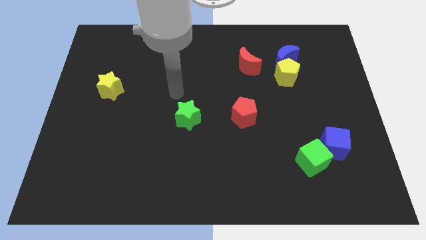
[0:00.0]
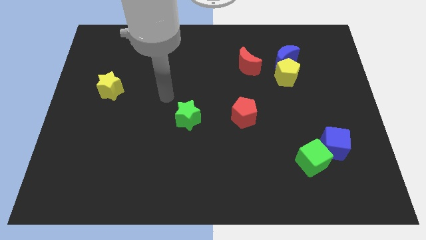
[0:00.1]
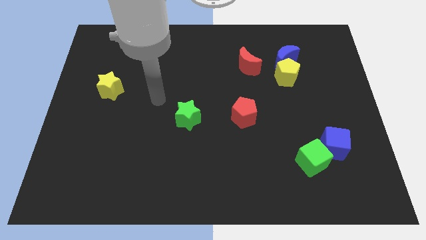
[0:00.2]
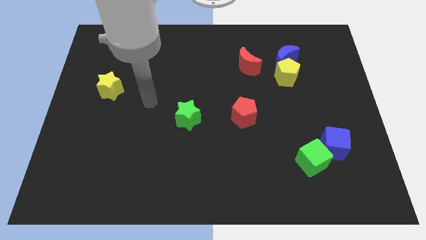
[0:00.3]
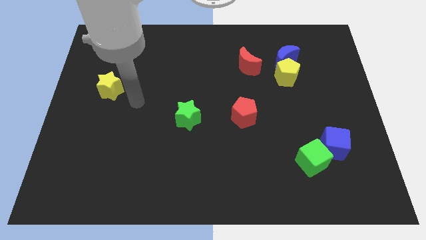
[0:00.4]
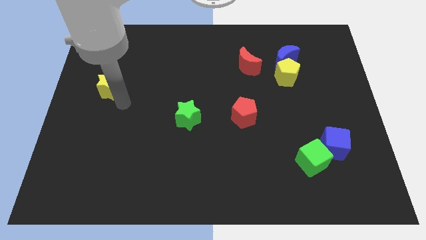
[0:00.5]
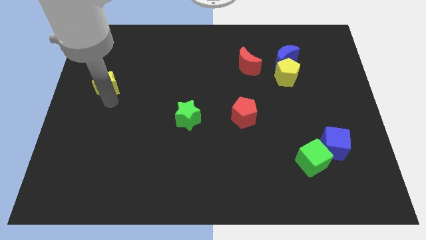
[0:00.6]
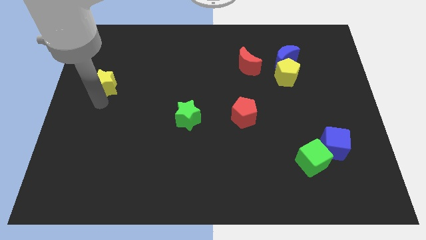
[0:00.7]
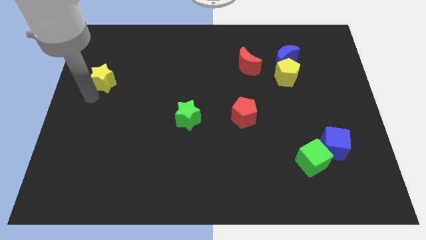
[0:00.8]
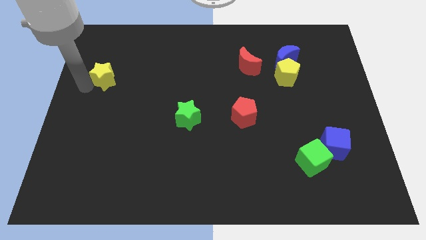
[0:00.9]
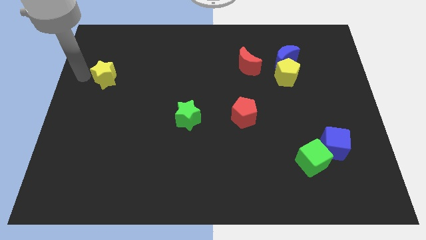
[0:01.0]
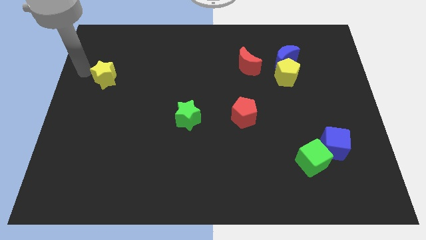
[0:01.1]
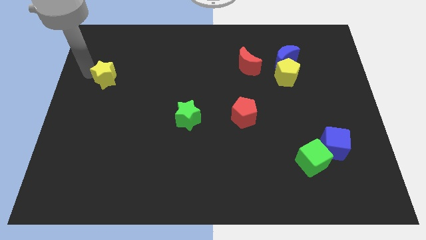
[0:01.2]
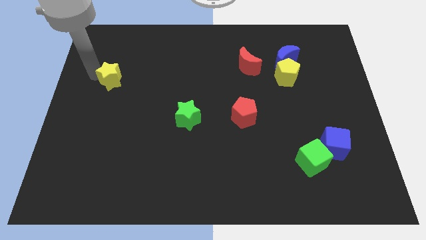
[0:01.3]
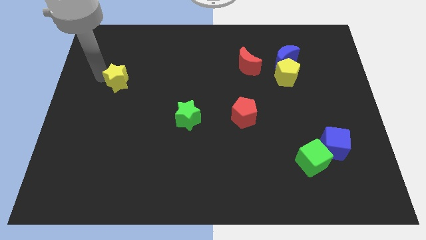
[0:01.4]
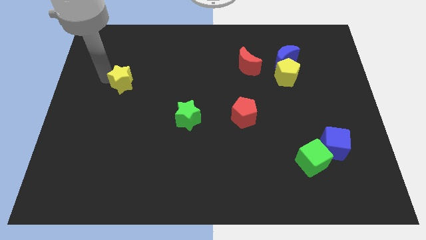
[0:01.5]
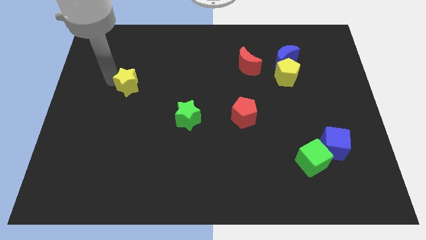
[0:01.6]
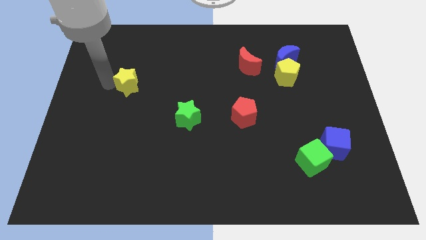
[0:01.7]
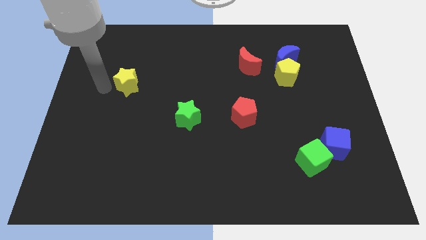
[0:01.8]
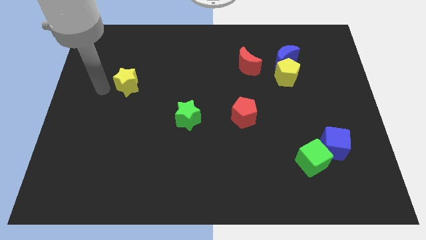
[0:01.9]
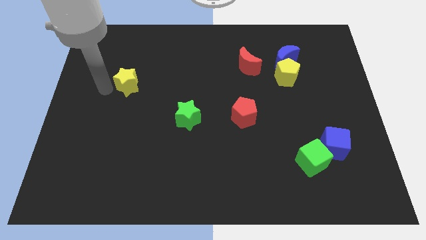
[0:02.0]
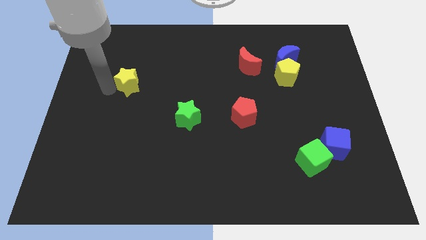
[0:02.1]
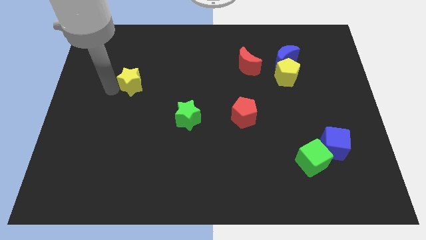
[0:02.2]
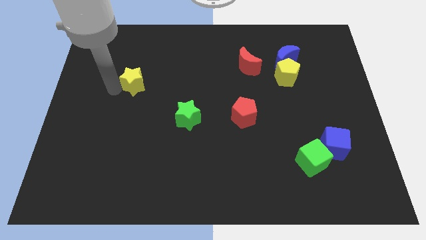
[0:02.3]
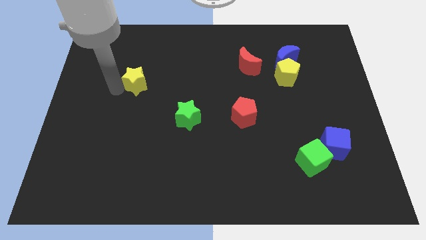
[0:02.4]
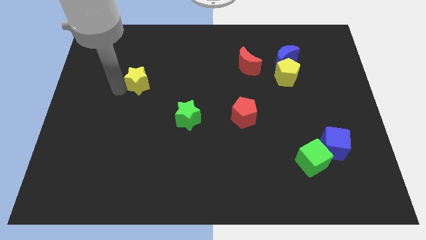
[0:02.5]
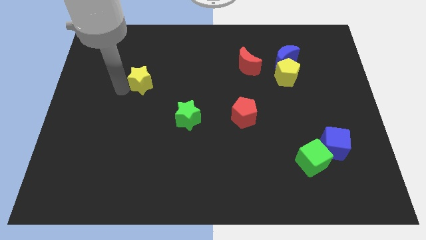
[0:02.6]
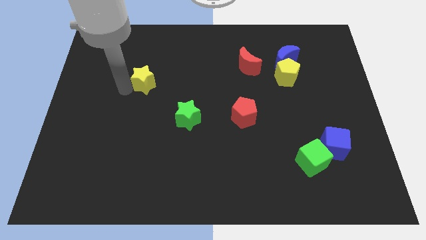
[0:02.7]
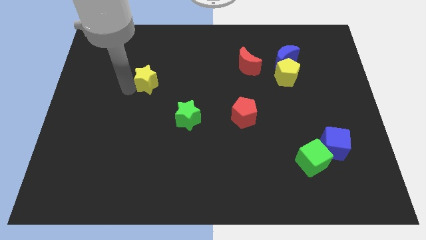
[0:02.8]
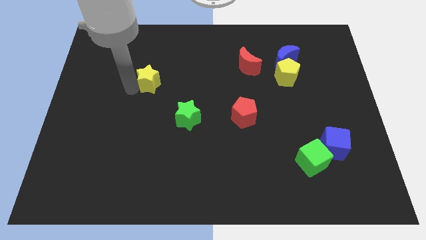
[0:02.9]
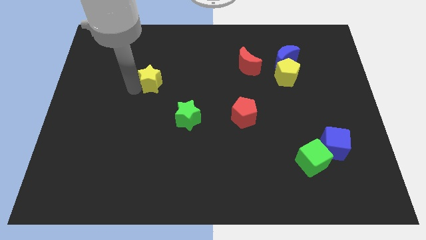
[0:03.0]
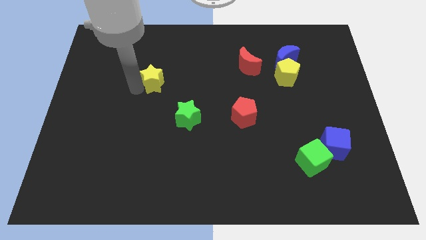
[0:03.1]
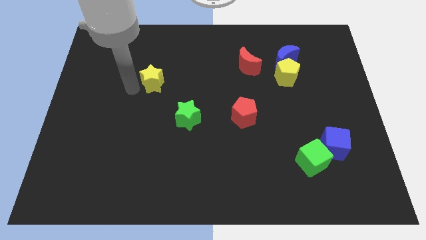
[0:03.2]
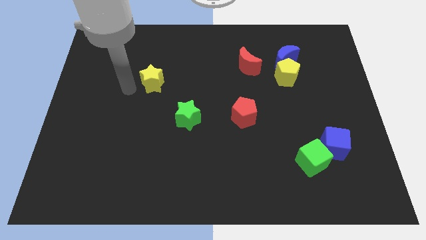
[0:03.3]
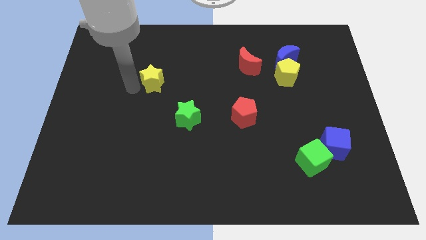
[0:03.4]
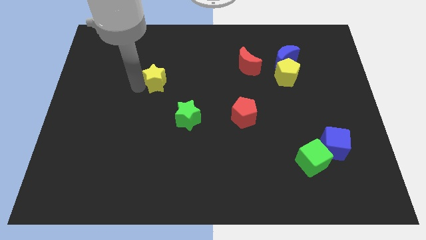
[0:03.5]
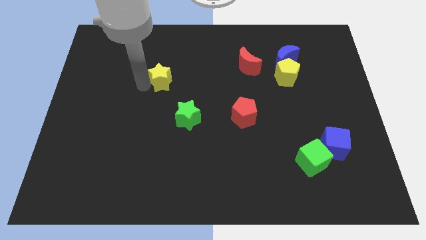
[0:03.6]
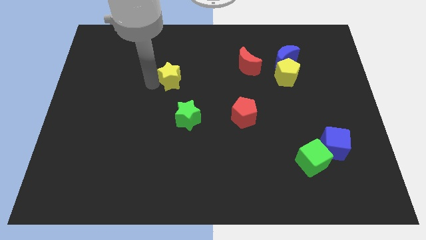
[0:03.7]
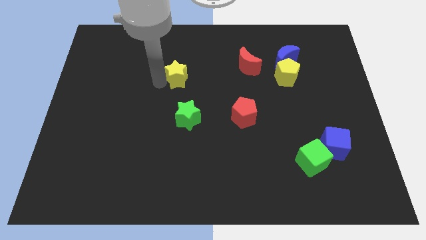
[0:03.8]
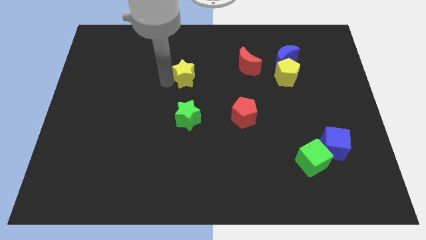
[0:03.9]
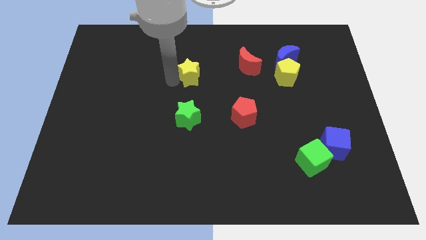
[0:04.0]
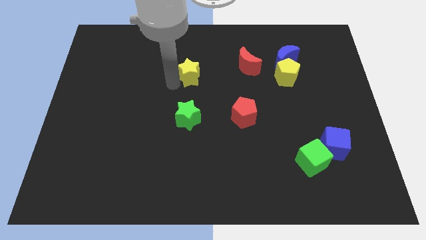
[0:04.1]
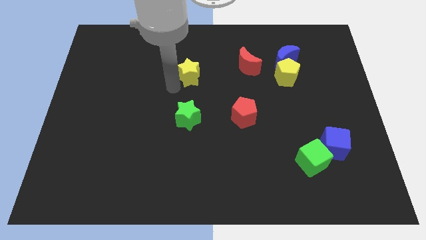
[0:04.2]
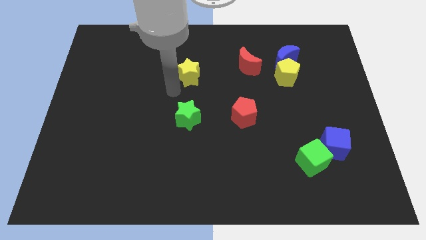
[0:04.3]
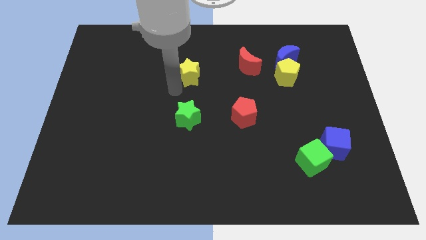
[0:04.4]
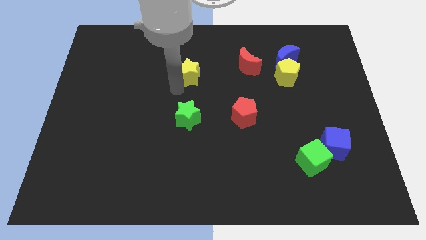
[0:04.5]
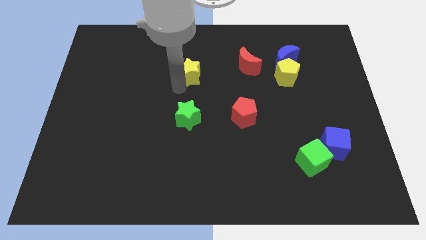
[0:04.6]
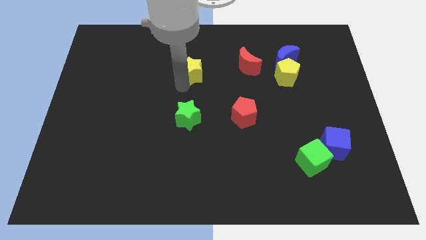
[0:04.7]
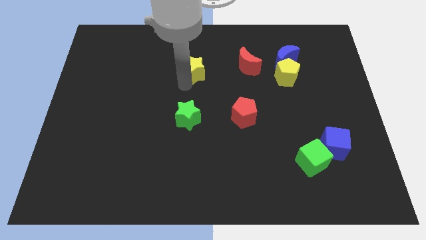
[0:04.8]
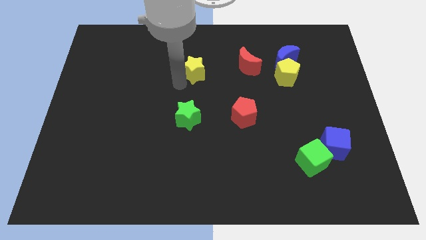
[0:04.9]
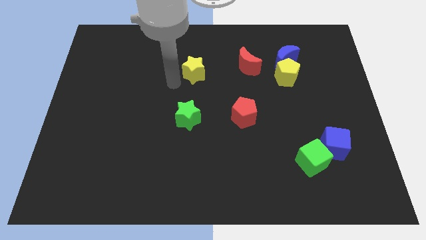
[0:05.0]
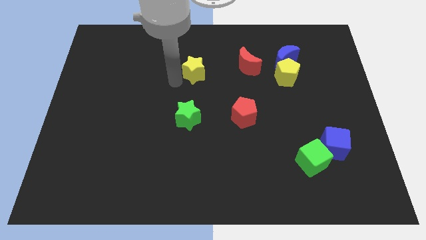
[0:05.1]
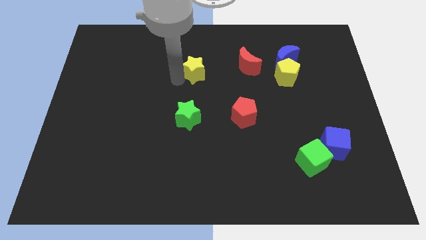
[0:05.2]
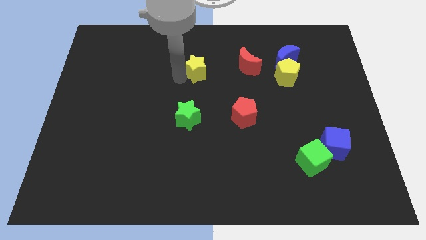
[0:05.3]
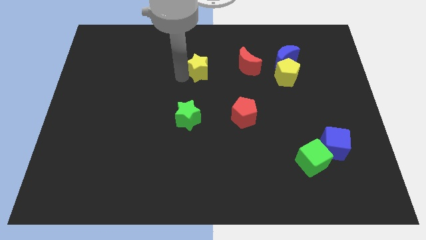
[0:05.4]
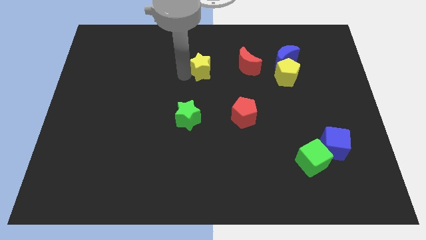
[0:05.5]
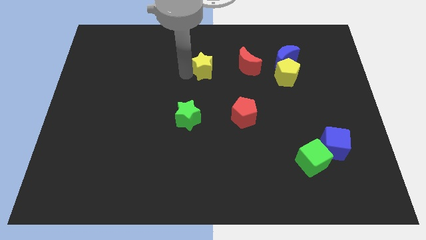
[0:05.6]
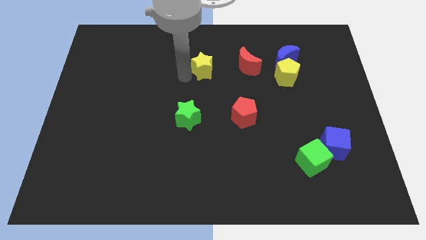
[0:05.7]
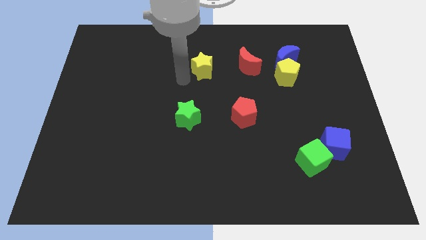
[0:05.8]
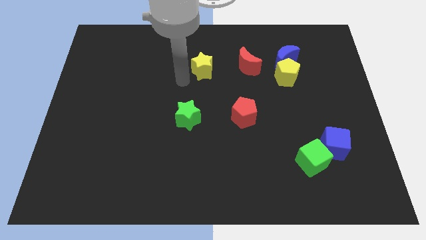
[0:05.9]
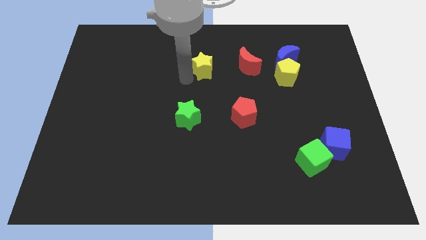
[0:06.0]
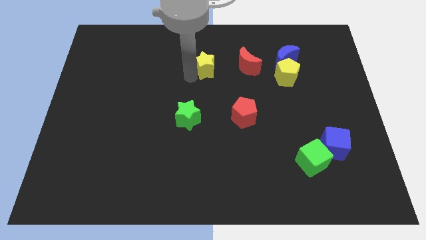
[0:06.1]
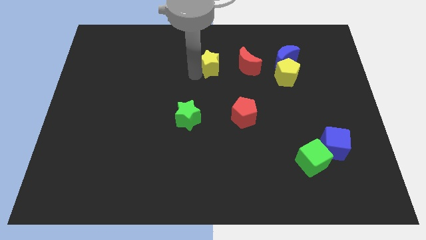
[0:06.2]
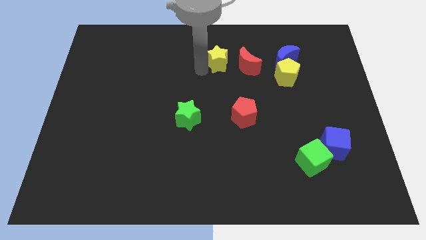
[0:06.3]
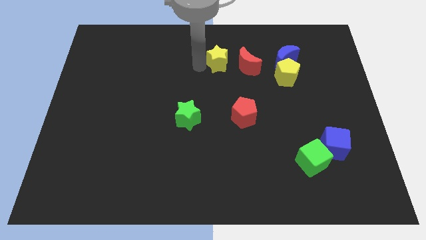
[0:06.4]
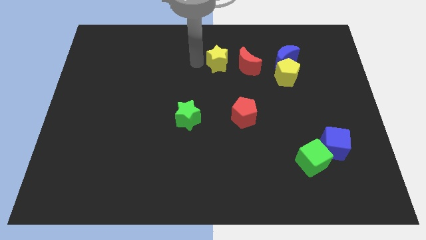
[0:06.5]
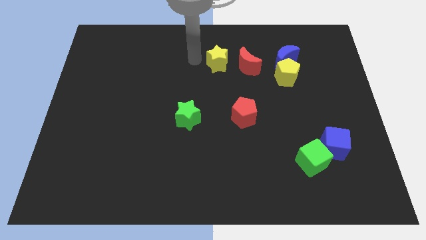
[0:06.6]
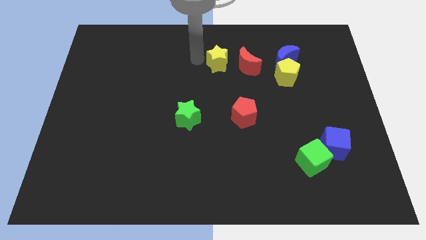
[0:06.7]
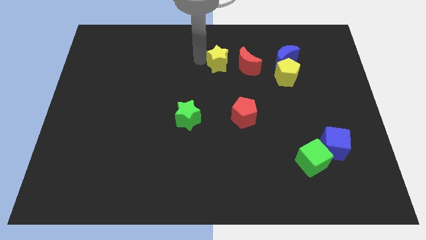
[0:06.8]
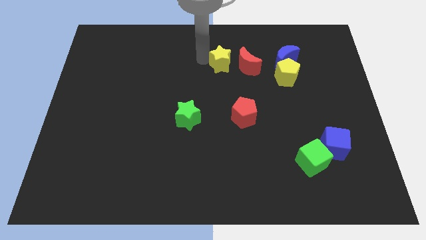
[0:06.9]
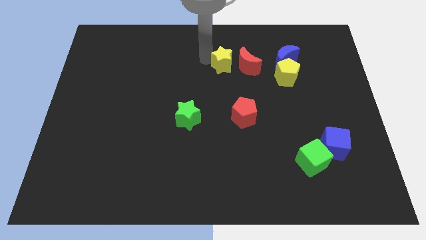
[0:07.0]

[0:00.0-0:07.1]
move the yellow star next to the red moon

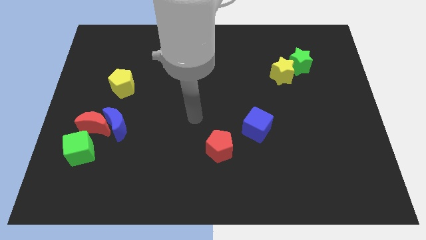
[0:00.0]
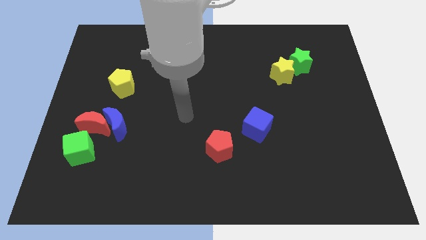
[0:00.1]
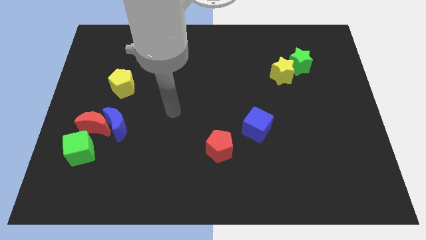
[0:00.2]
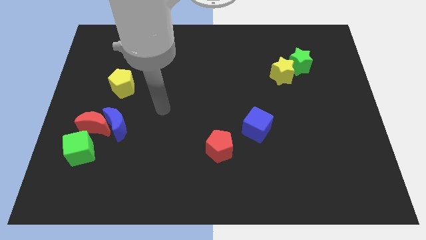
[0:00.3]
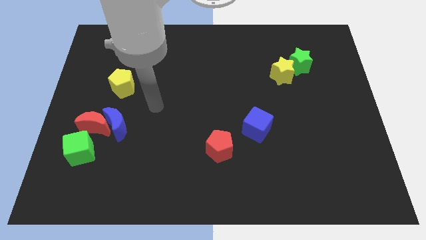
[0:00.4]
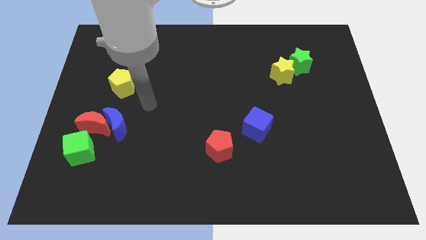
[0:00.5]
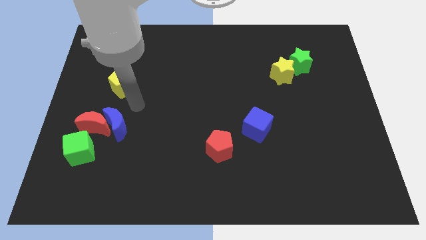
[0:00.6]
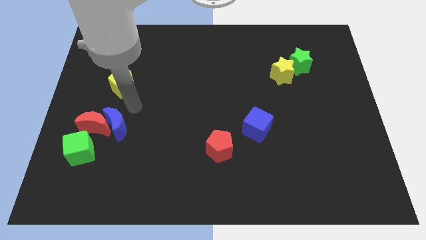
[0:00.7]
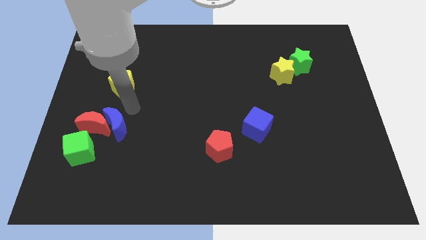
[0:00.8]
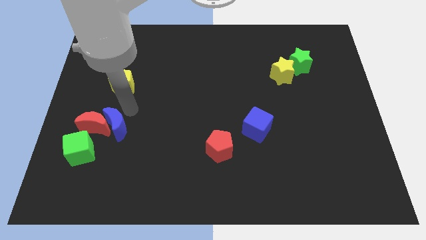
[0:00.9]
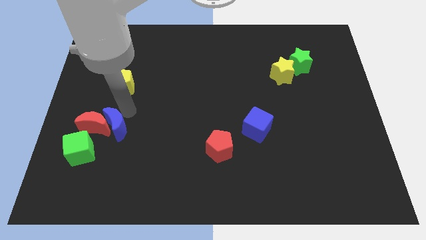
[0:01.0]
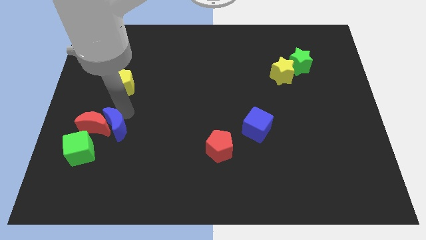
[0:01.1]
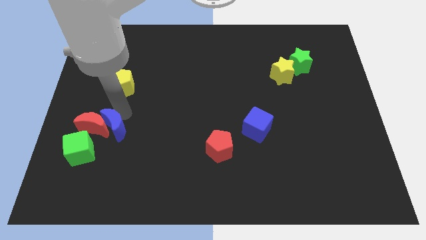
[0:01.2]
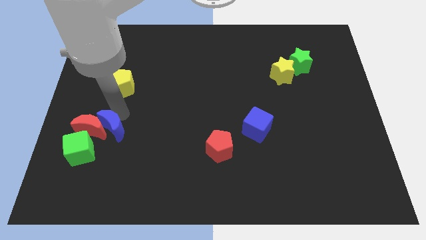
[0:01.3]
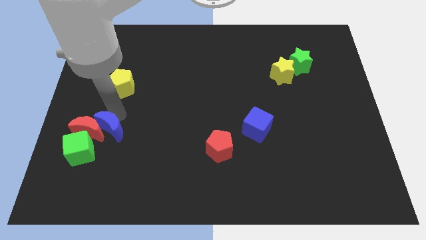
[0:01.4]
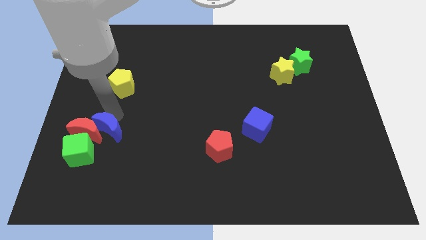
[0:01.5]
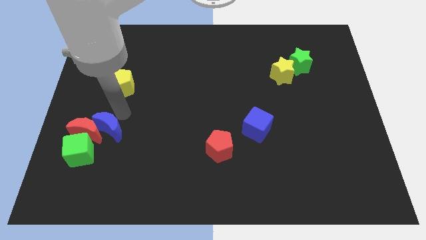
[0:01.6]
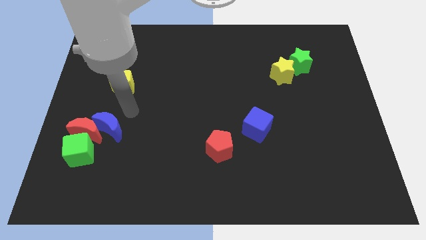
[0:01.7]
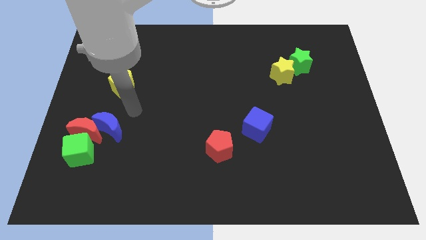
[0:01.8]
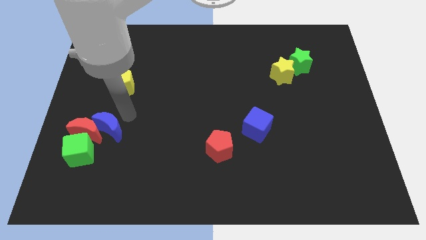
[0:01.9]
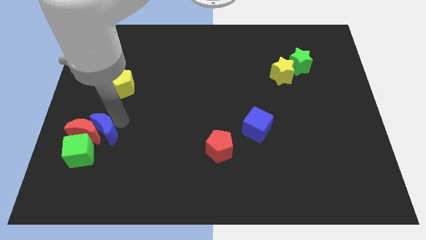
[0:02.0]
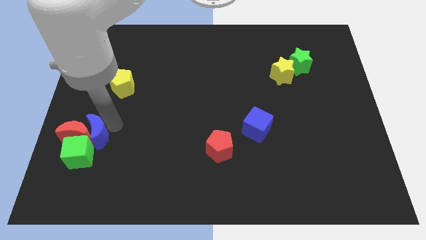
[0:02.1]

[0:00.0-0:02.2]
slide the blue moon to the green cube
